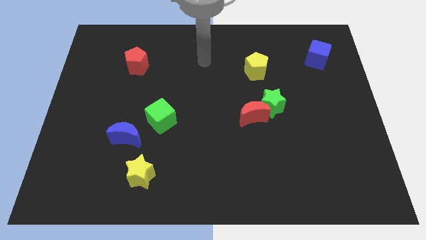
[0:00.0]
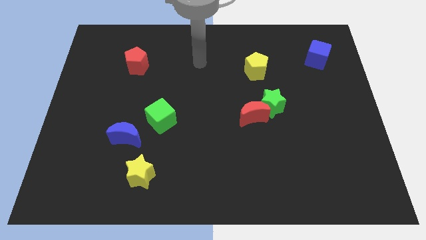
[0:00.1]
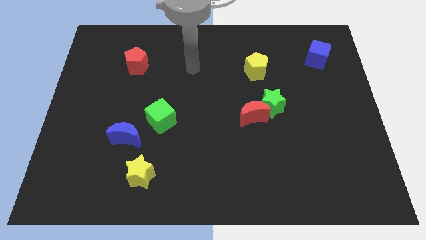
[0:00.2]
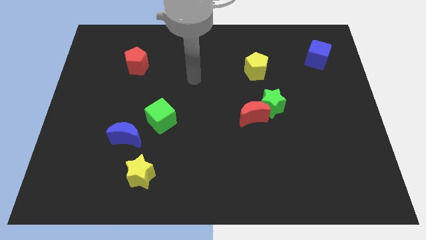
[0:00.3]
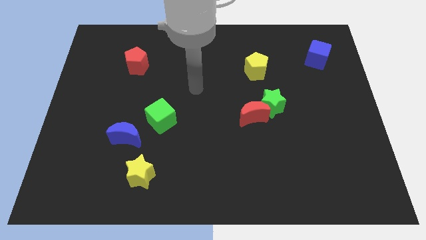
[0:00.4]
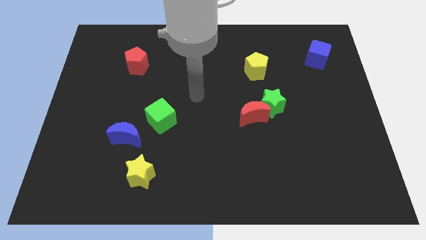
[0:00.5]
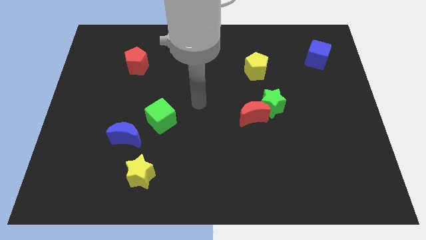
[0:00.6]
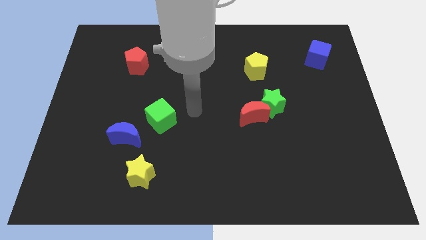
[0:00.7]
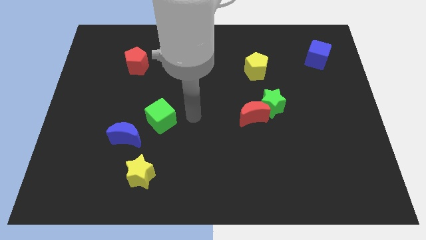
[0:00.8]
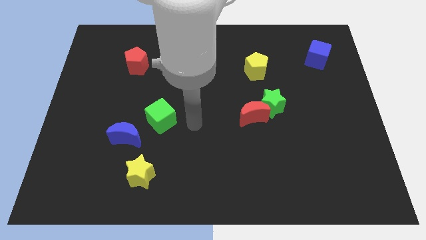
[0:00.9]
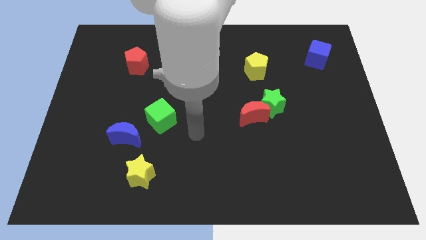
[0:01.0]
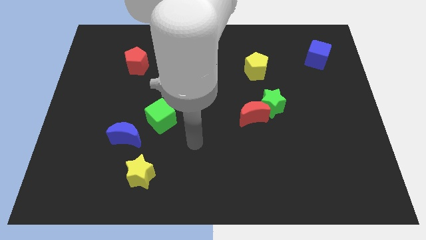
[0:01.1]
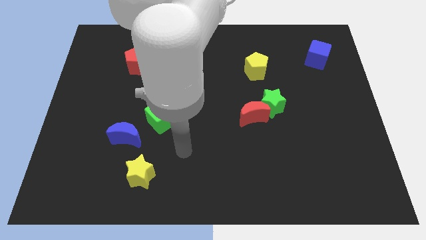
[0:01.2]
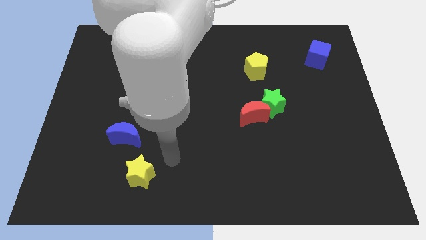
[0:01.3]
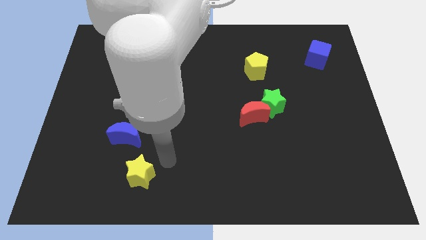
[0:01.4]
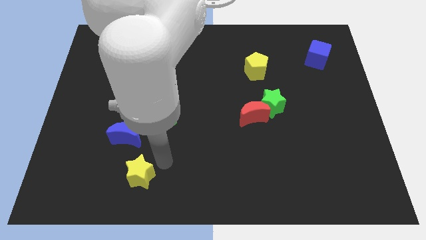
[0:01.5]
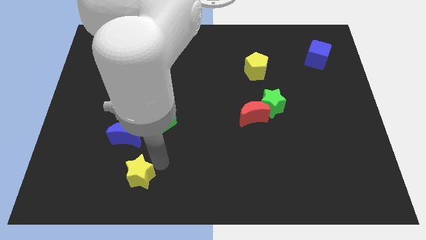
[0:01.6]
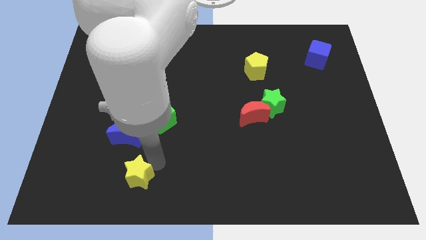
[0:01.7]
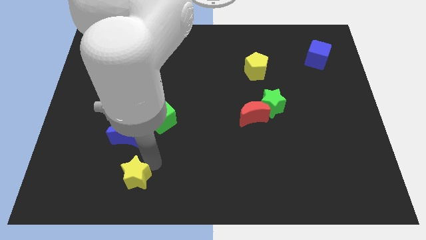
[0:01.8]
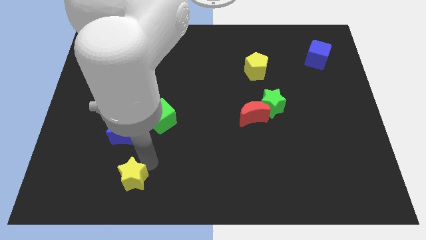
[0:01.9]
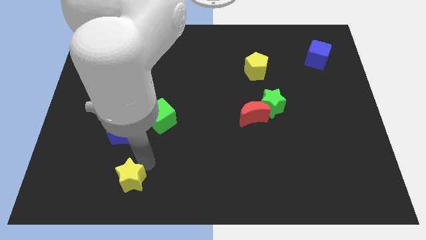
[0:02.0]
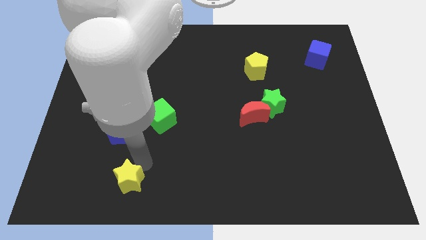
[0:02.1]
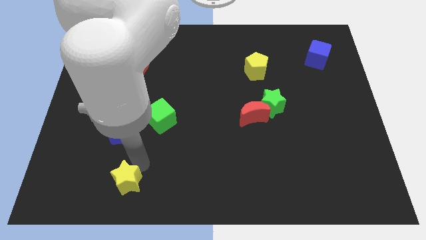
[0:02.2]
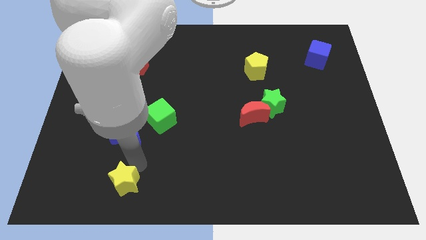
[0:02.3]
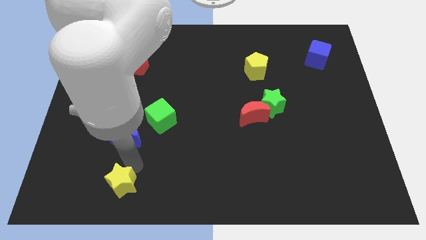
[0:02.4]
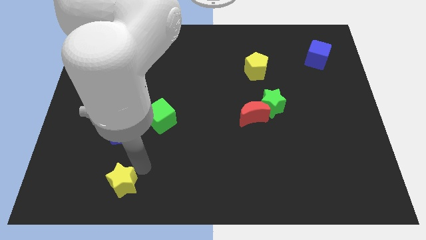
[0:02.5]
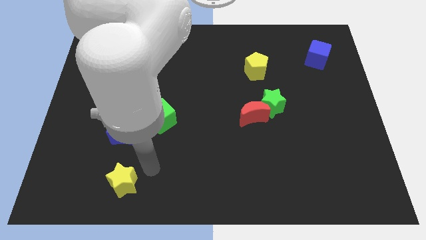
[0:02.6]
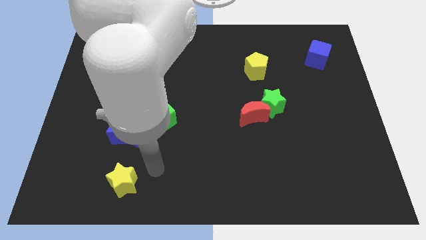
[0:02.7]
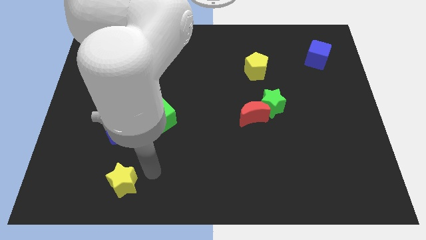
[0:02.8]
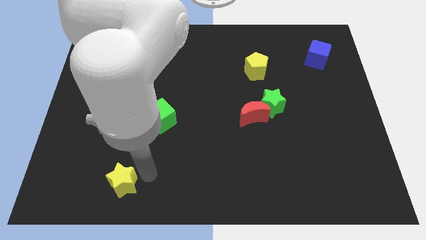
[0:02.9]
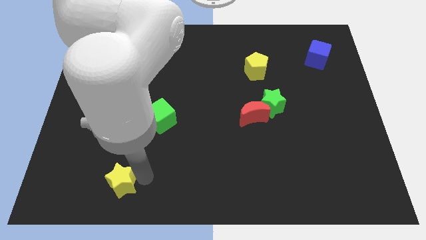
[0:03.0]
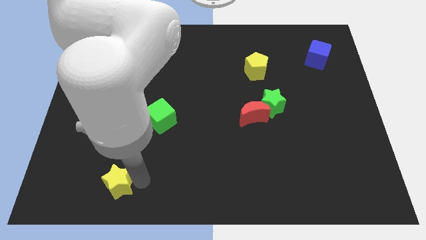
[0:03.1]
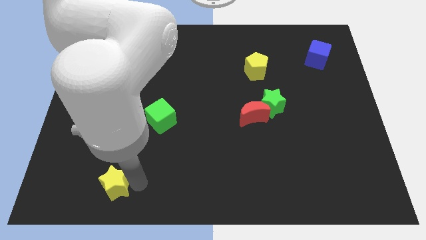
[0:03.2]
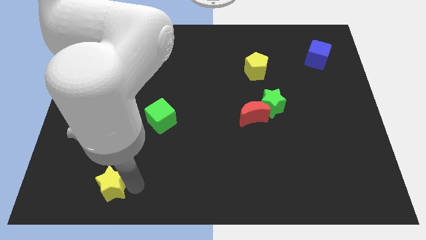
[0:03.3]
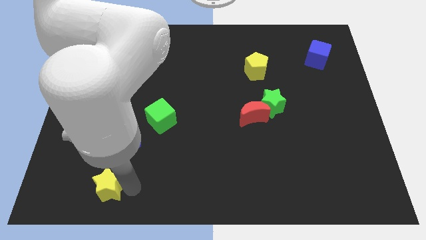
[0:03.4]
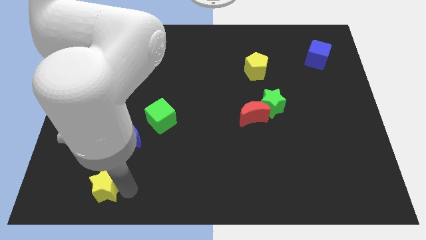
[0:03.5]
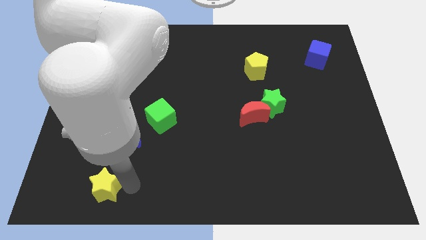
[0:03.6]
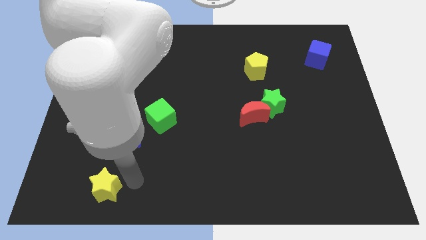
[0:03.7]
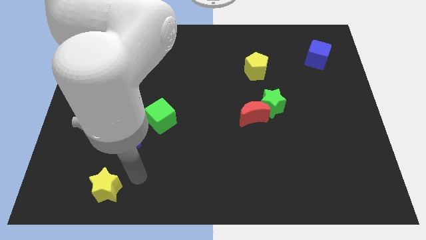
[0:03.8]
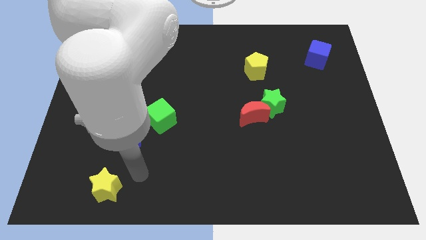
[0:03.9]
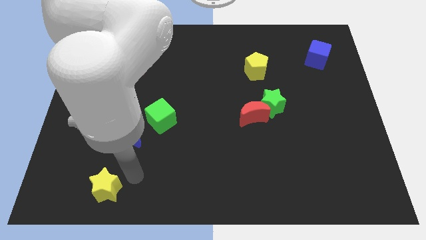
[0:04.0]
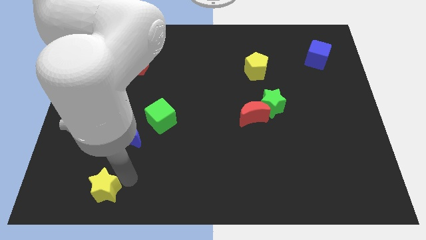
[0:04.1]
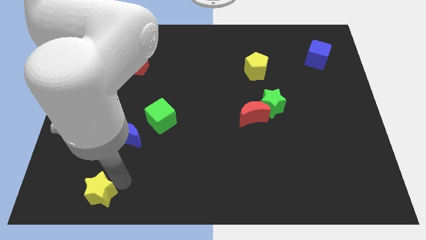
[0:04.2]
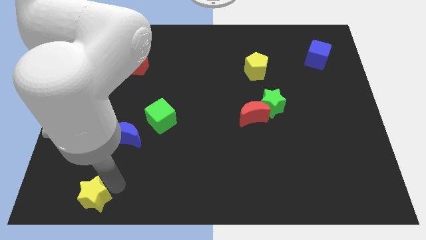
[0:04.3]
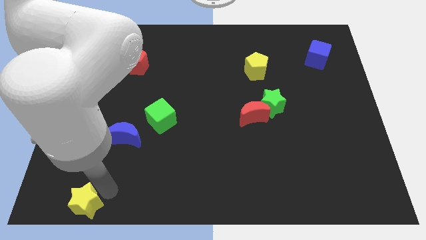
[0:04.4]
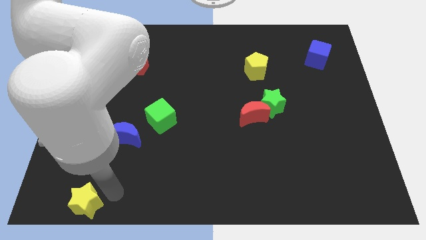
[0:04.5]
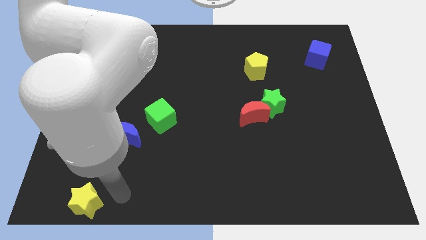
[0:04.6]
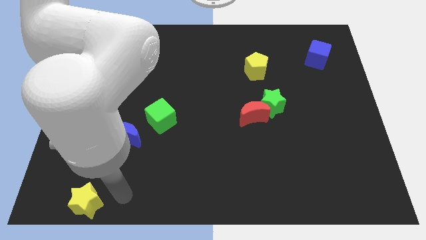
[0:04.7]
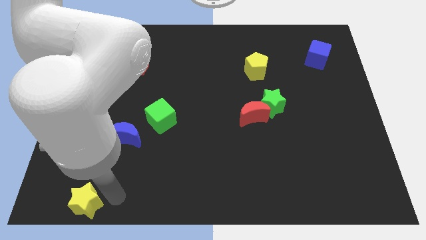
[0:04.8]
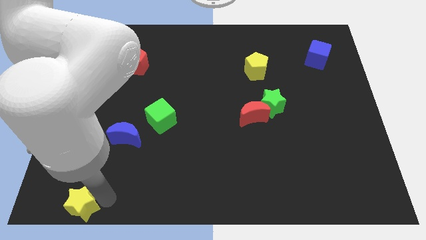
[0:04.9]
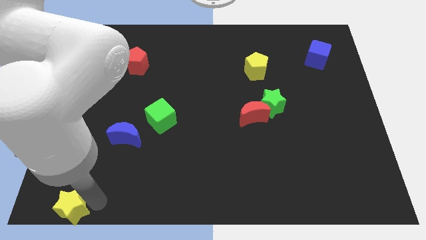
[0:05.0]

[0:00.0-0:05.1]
move the yellow star to the bottom left

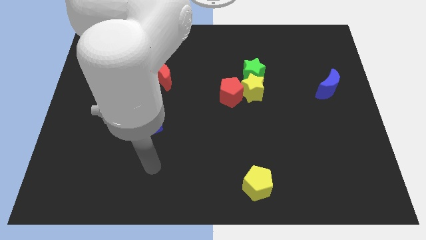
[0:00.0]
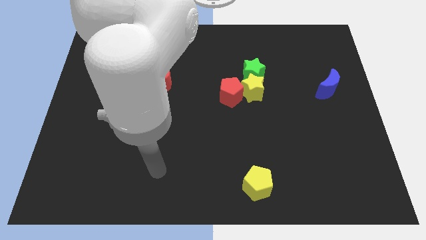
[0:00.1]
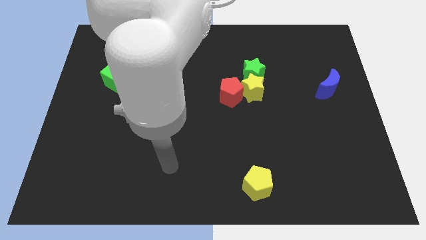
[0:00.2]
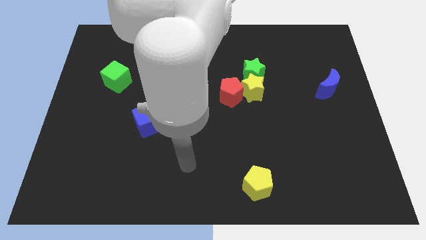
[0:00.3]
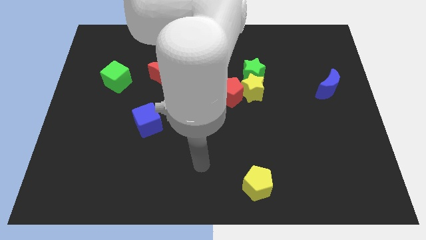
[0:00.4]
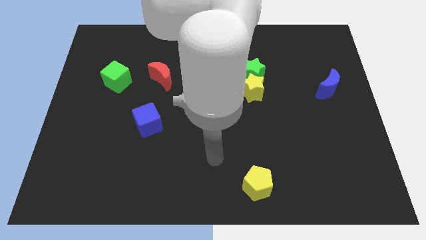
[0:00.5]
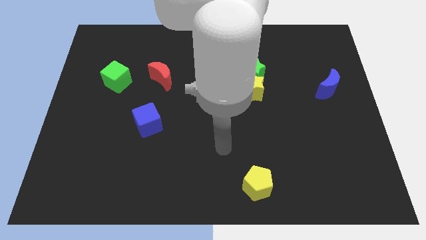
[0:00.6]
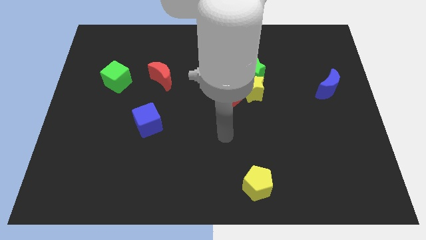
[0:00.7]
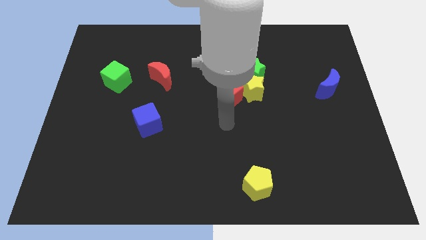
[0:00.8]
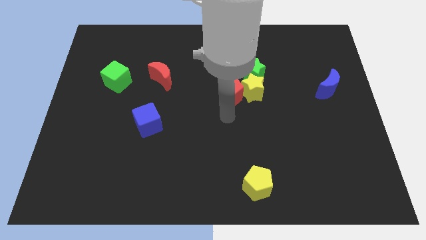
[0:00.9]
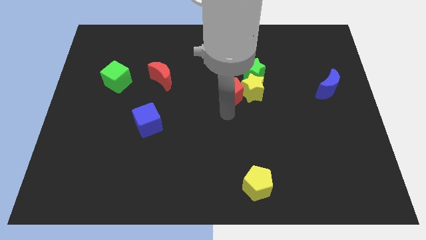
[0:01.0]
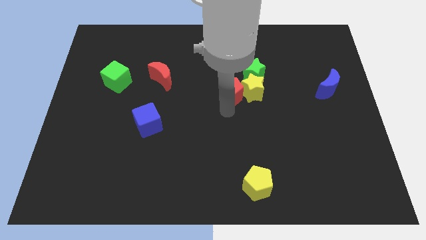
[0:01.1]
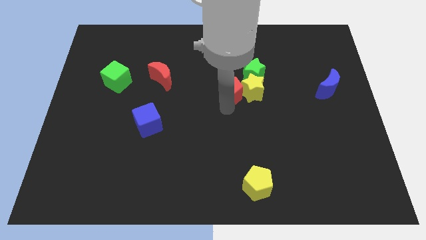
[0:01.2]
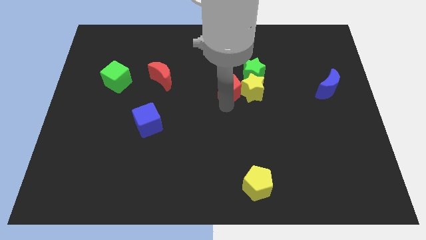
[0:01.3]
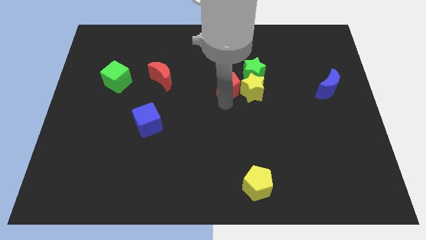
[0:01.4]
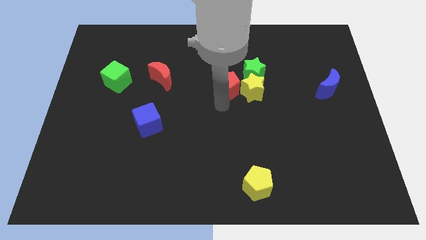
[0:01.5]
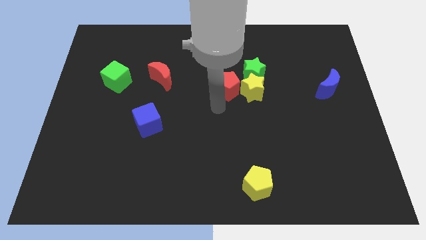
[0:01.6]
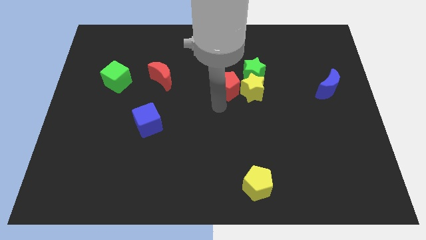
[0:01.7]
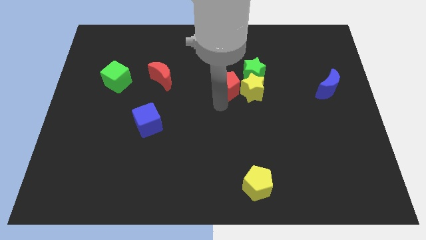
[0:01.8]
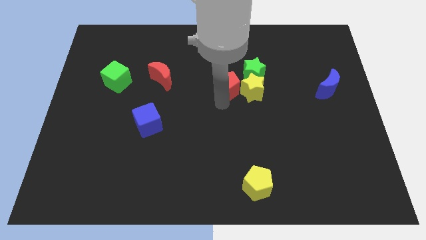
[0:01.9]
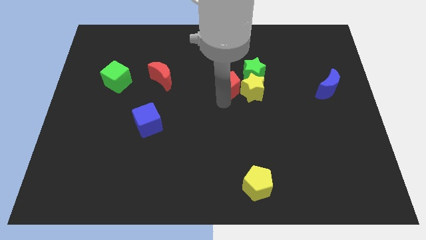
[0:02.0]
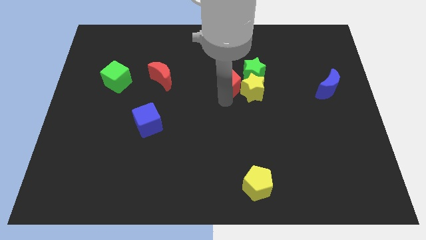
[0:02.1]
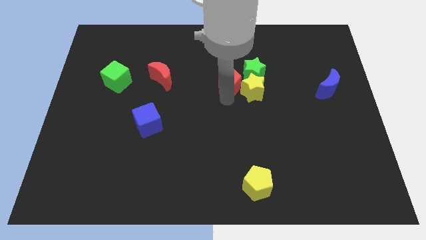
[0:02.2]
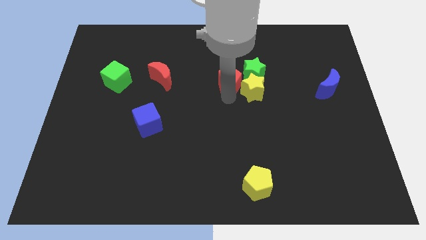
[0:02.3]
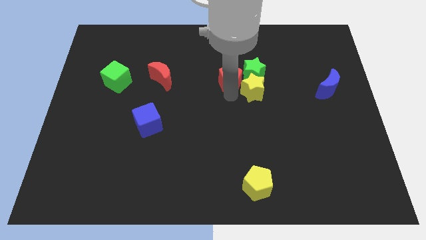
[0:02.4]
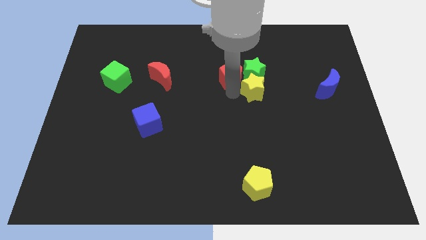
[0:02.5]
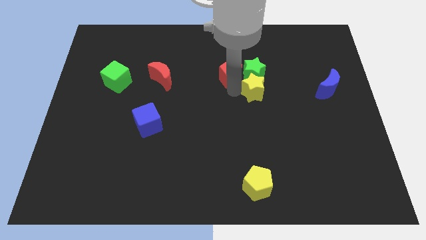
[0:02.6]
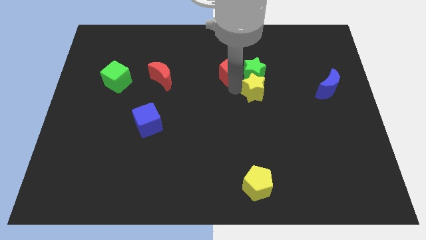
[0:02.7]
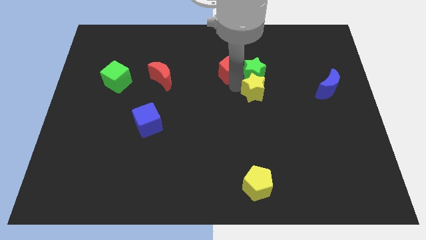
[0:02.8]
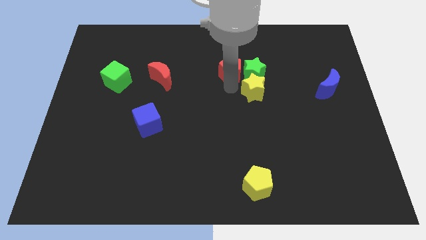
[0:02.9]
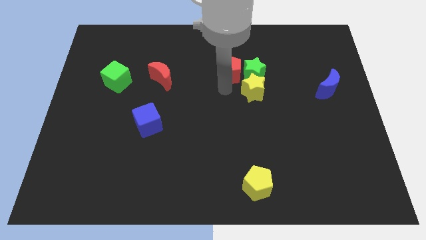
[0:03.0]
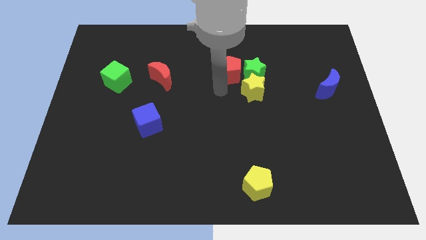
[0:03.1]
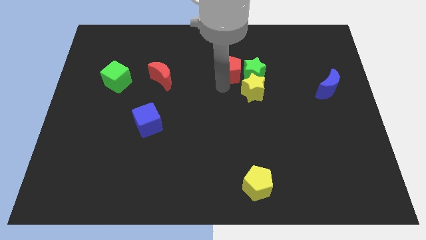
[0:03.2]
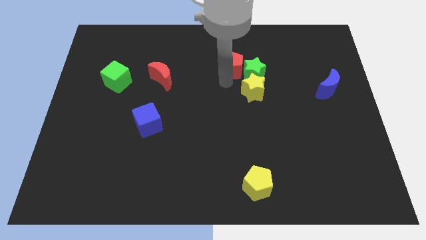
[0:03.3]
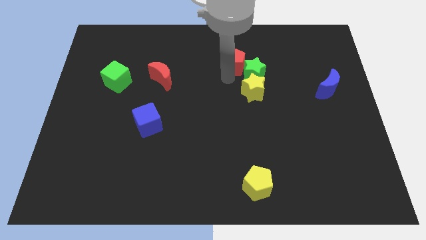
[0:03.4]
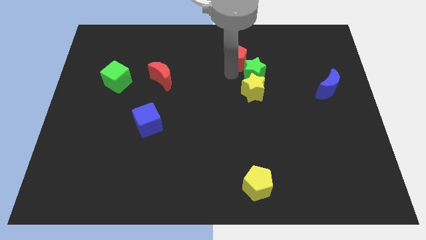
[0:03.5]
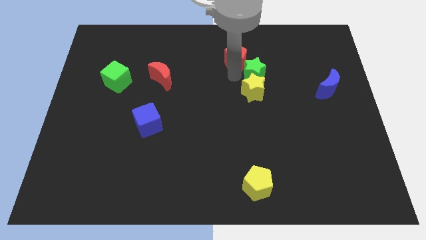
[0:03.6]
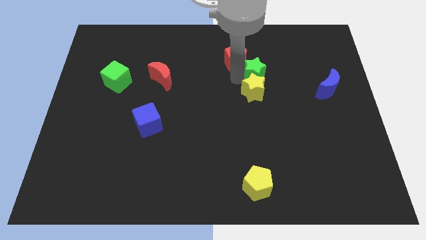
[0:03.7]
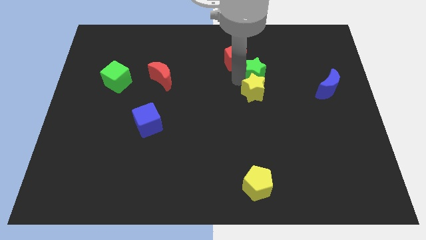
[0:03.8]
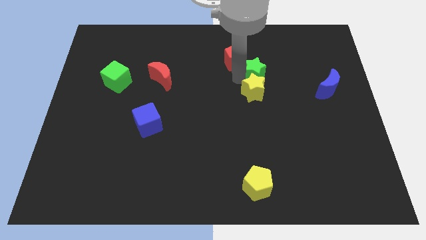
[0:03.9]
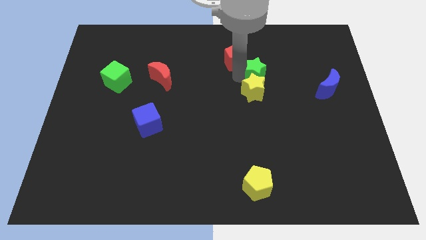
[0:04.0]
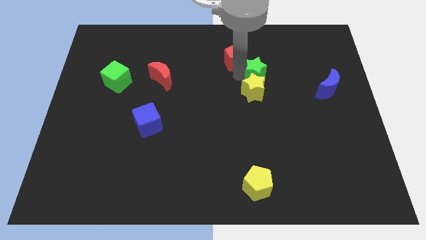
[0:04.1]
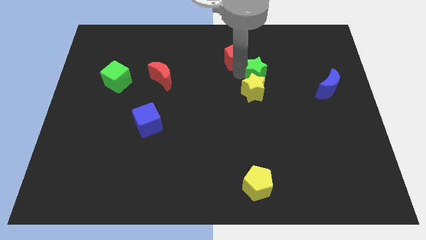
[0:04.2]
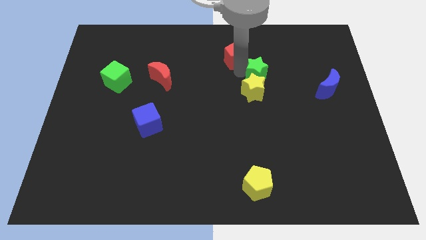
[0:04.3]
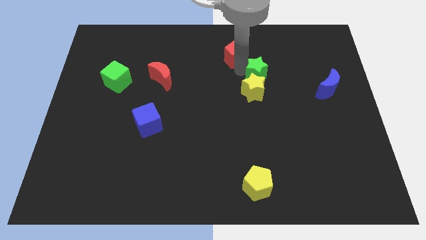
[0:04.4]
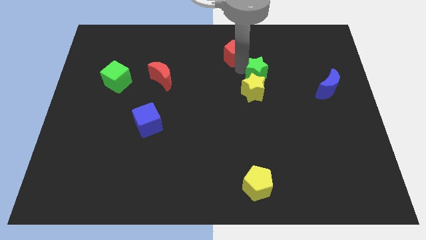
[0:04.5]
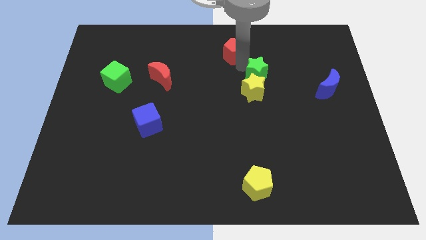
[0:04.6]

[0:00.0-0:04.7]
slide the red pentagon to the top side
